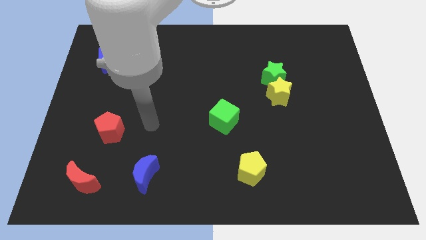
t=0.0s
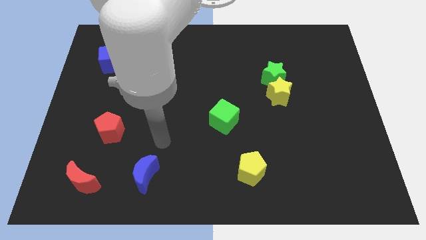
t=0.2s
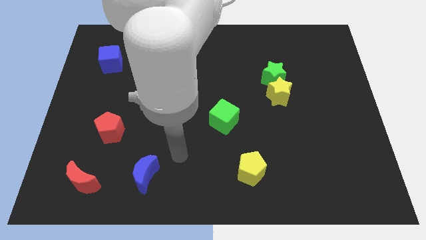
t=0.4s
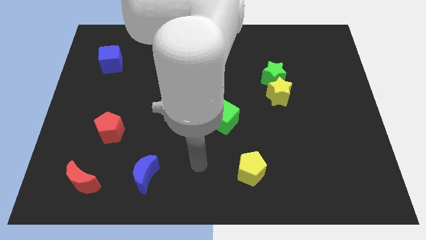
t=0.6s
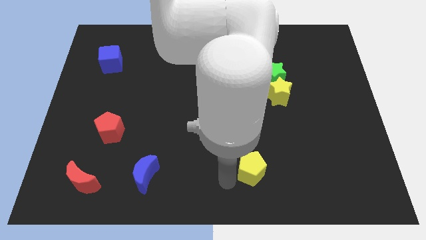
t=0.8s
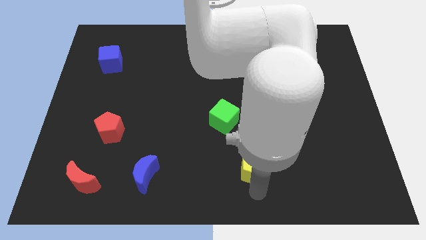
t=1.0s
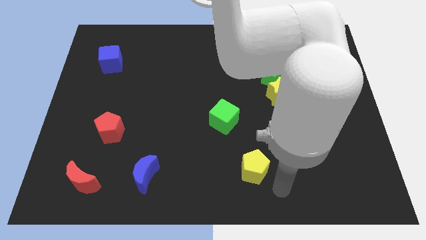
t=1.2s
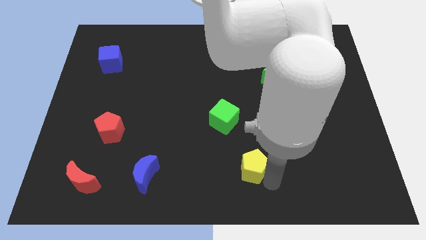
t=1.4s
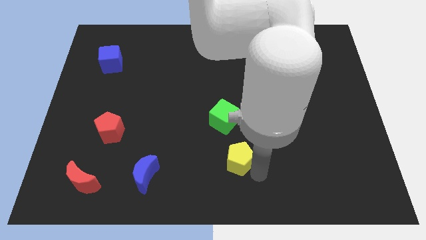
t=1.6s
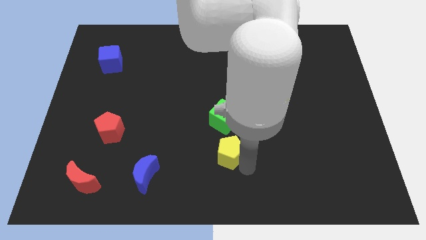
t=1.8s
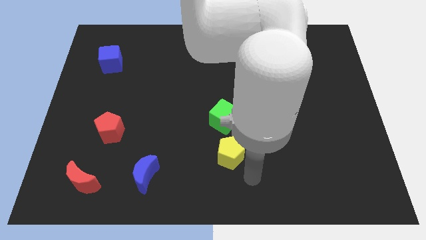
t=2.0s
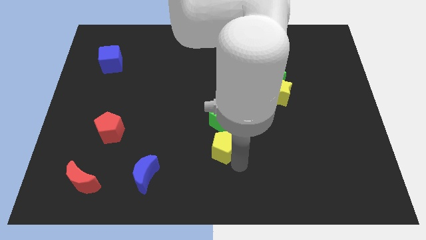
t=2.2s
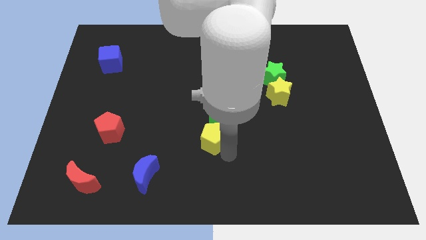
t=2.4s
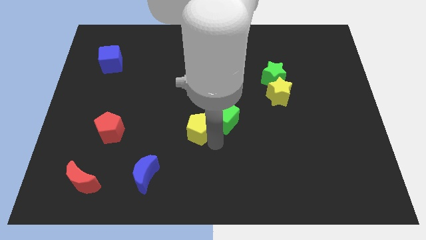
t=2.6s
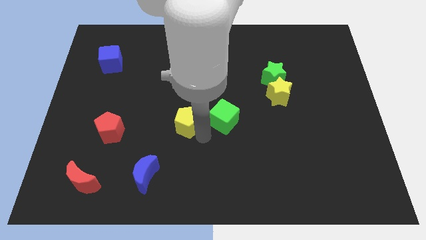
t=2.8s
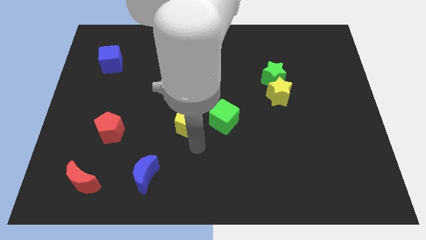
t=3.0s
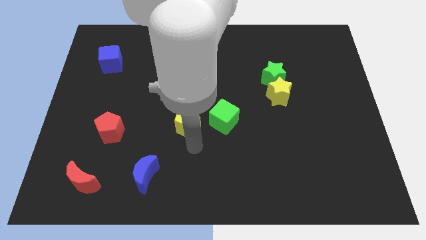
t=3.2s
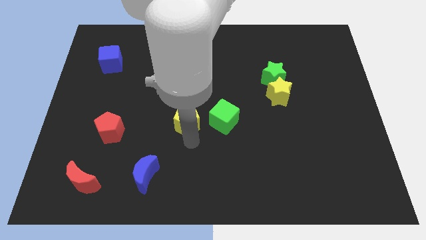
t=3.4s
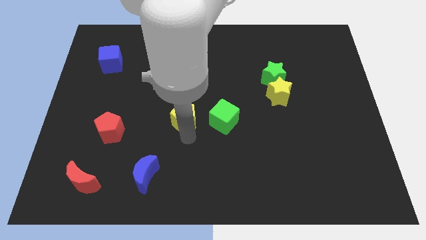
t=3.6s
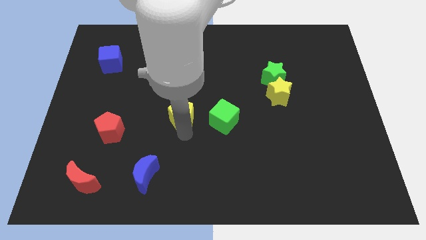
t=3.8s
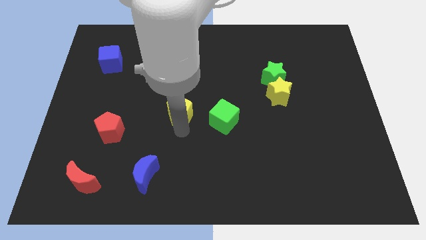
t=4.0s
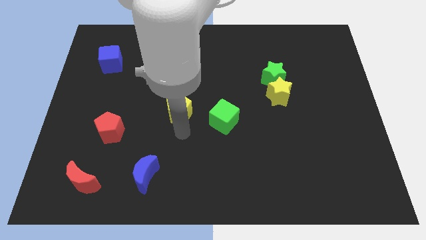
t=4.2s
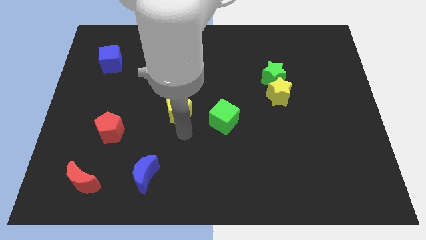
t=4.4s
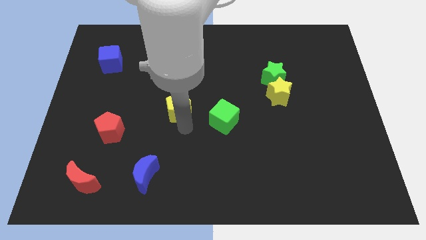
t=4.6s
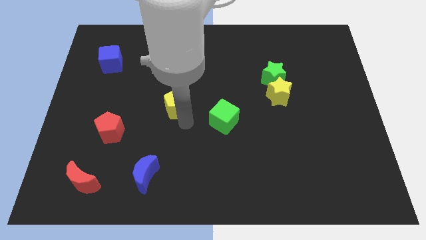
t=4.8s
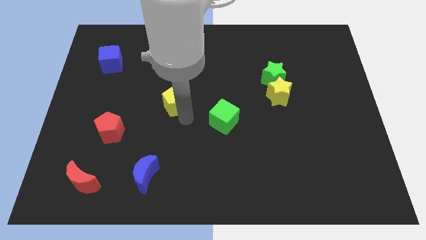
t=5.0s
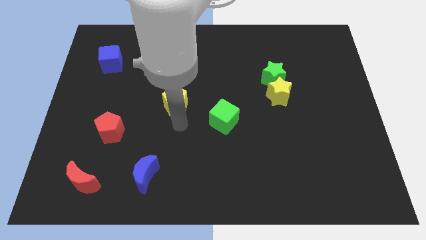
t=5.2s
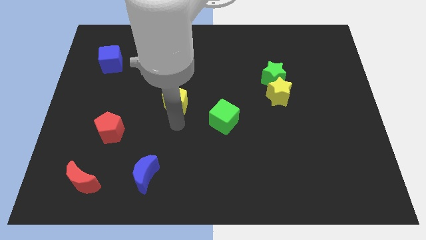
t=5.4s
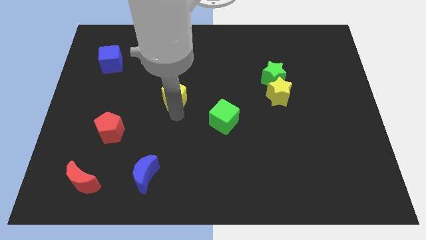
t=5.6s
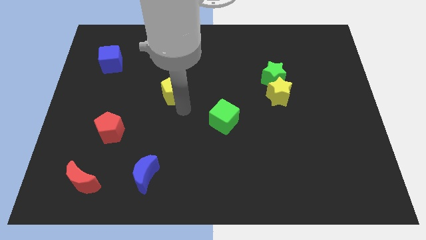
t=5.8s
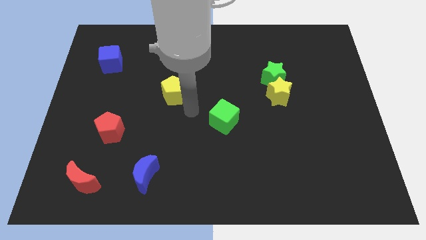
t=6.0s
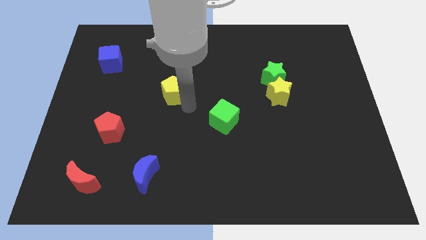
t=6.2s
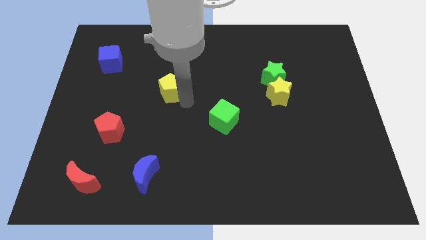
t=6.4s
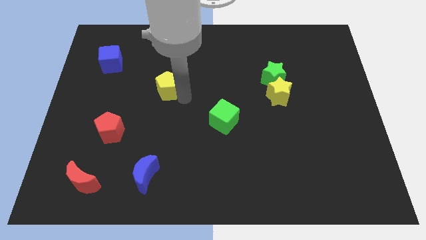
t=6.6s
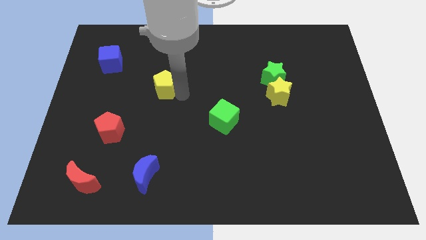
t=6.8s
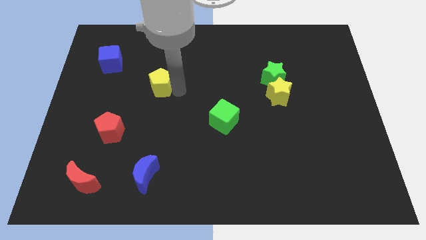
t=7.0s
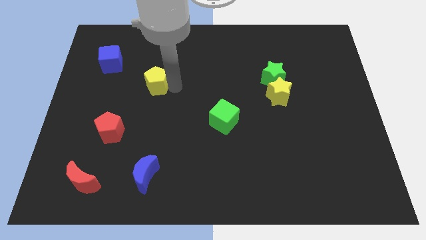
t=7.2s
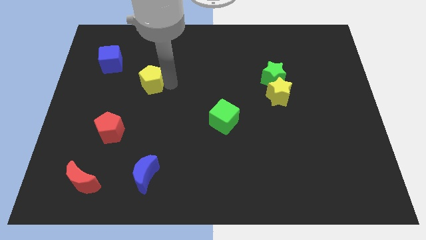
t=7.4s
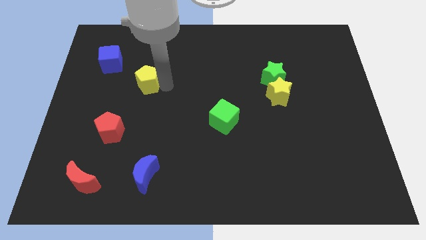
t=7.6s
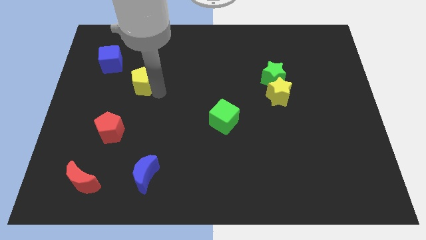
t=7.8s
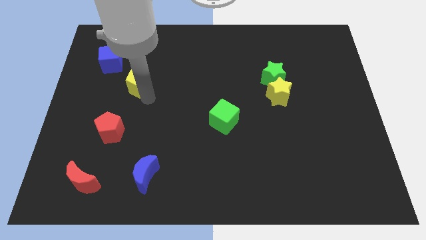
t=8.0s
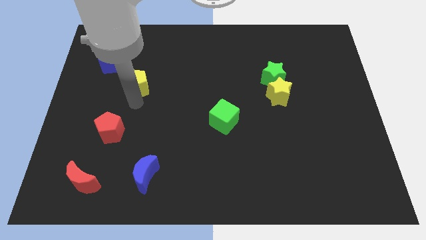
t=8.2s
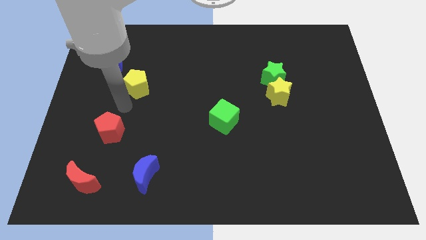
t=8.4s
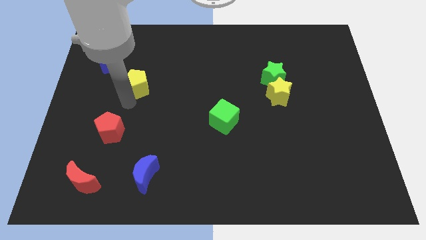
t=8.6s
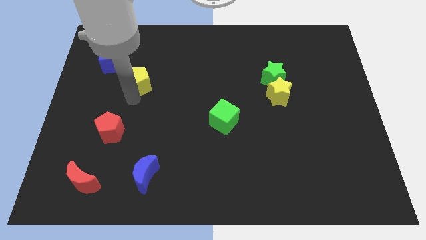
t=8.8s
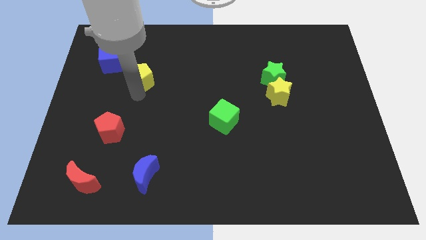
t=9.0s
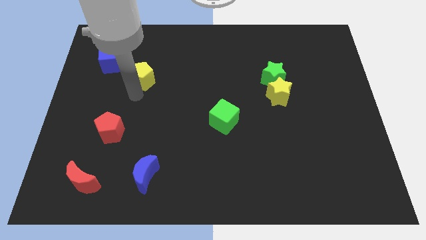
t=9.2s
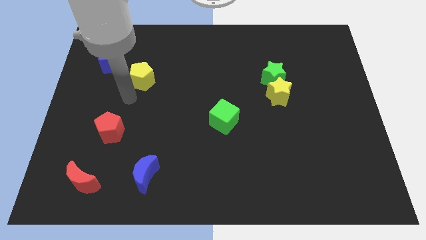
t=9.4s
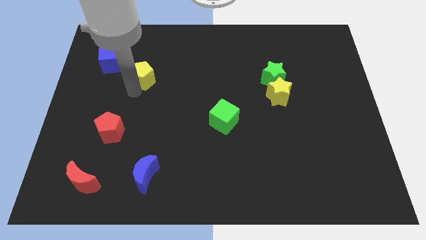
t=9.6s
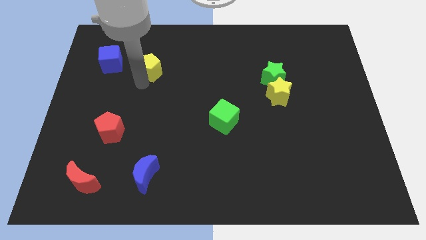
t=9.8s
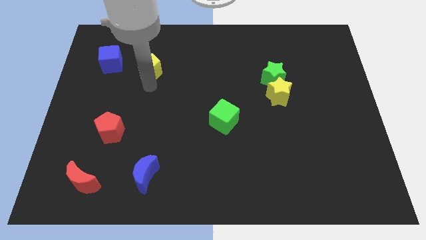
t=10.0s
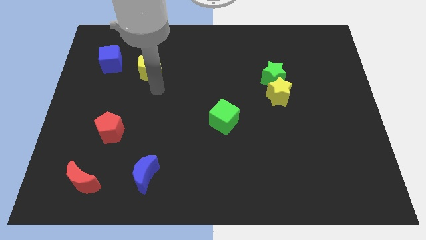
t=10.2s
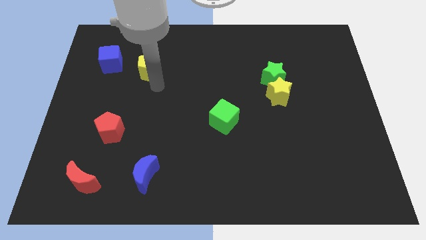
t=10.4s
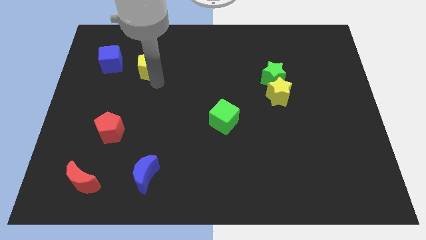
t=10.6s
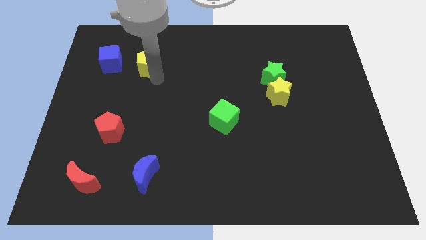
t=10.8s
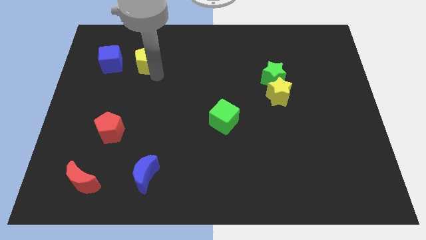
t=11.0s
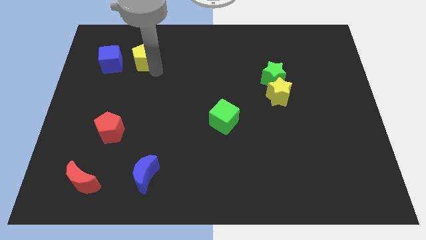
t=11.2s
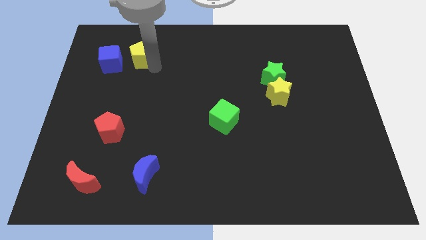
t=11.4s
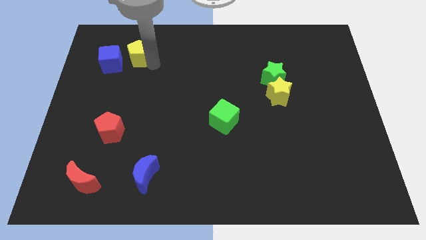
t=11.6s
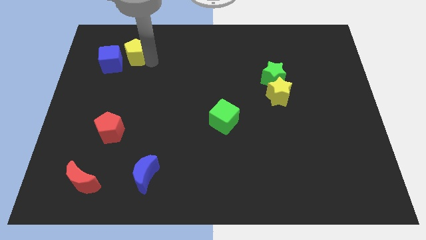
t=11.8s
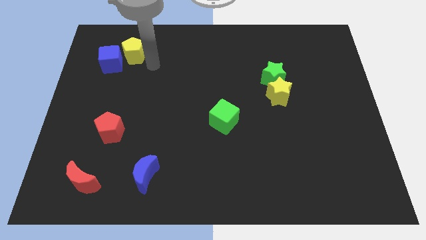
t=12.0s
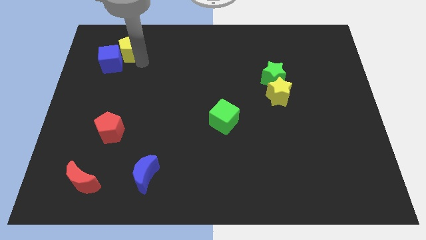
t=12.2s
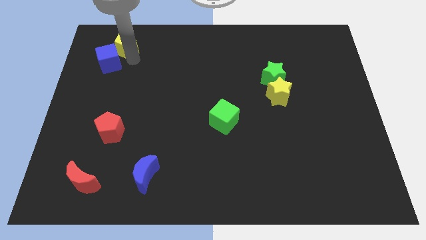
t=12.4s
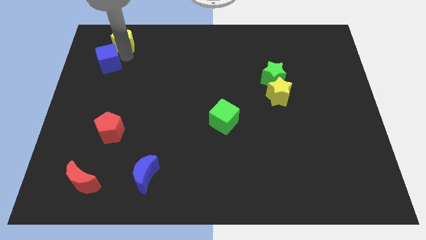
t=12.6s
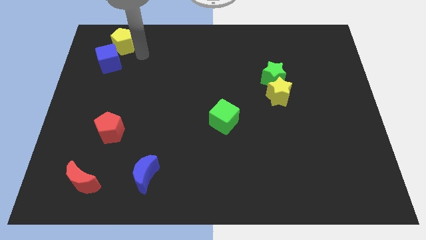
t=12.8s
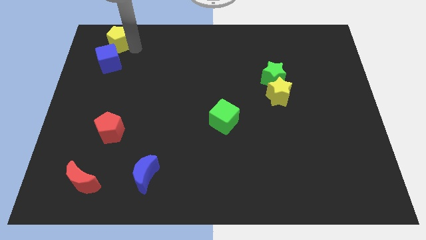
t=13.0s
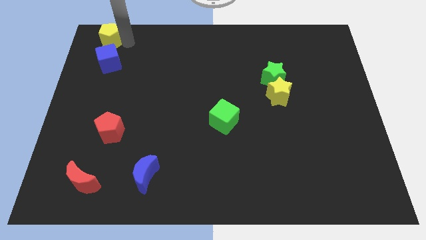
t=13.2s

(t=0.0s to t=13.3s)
put the yellow pentagon to the top left
